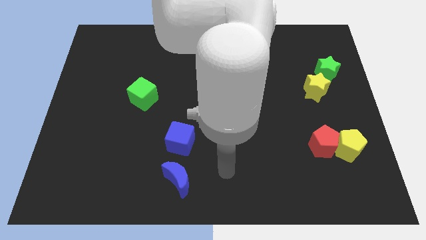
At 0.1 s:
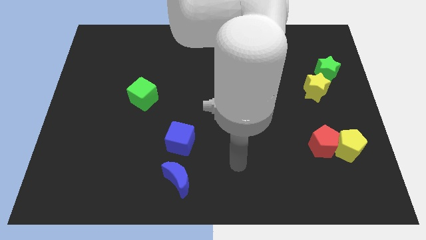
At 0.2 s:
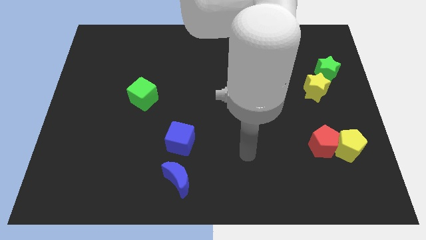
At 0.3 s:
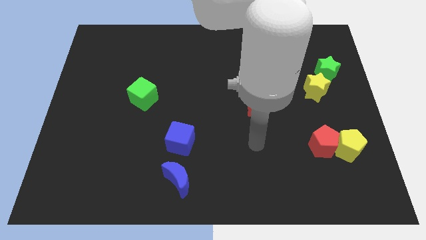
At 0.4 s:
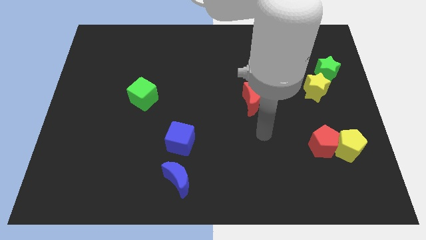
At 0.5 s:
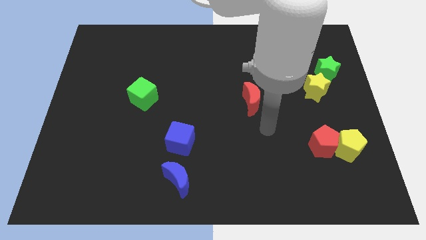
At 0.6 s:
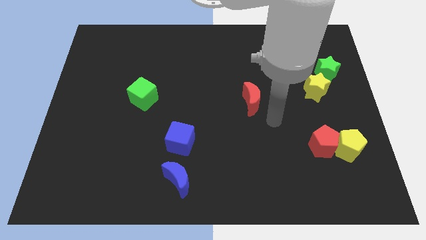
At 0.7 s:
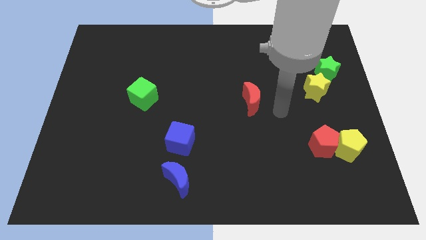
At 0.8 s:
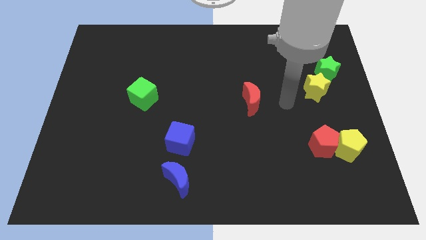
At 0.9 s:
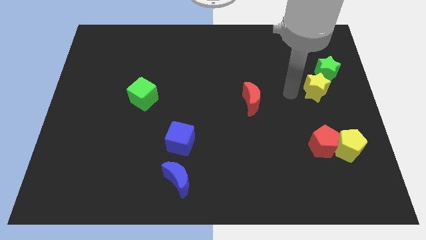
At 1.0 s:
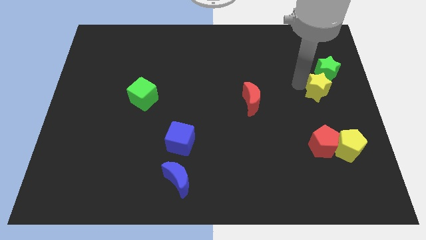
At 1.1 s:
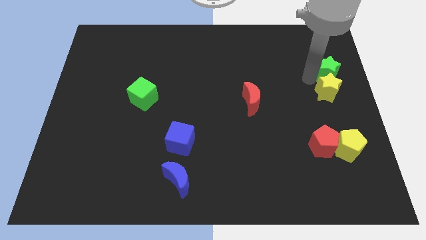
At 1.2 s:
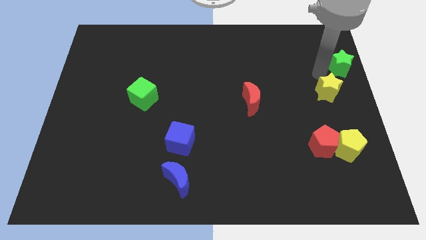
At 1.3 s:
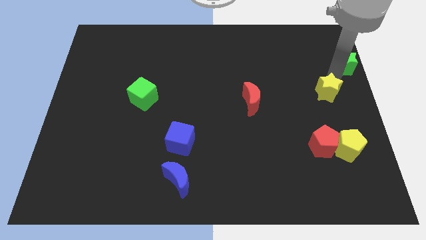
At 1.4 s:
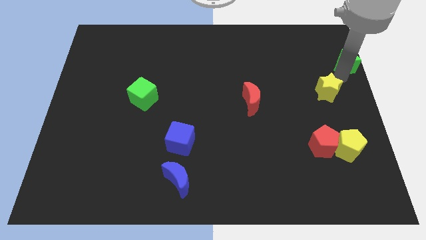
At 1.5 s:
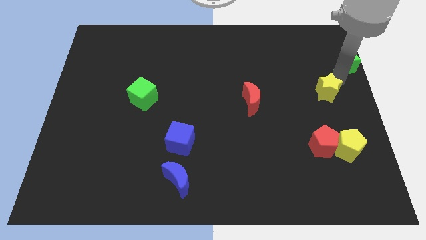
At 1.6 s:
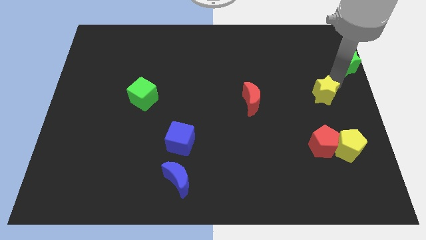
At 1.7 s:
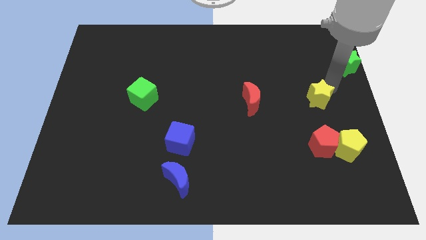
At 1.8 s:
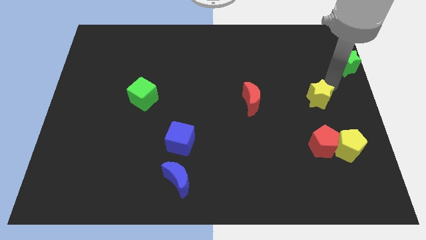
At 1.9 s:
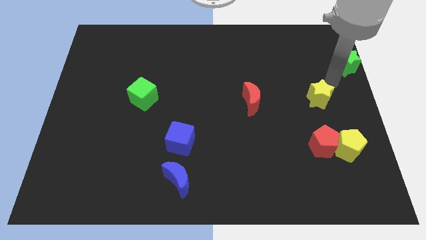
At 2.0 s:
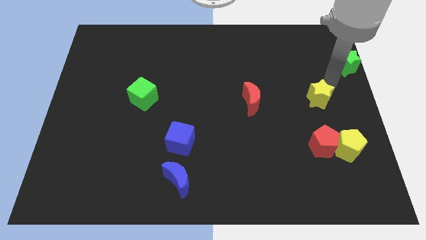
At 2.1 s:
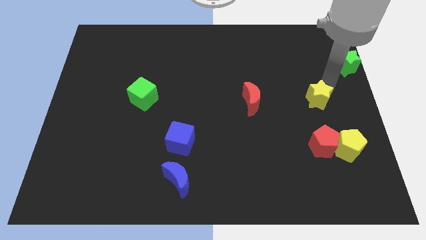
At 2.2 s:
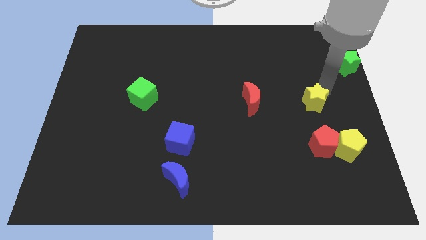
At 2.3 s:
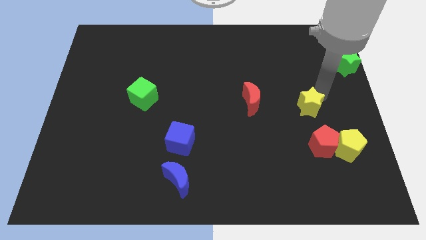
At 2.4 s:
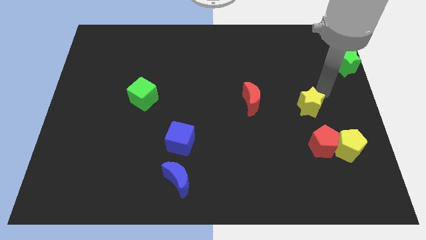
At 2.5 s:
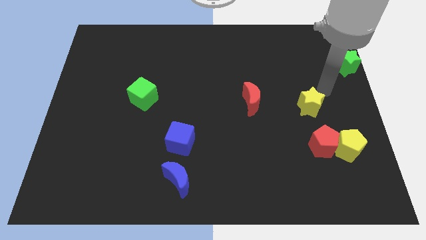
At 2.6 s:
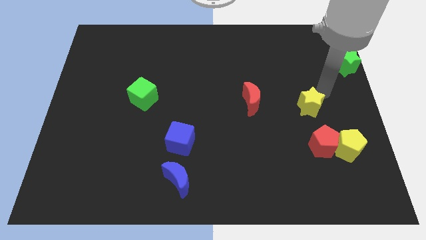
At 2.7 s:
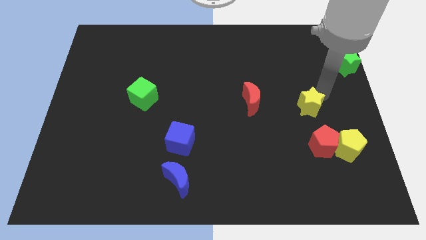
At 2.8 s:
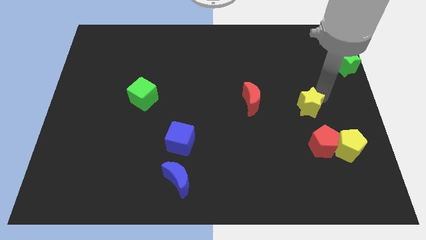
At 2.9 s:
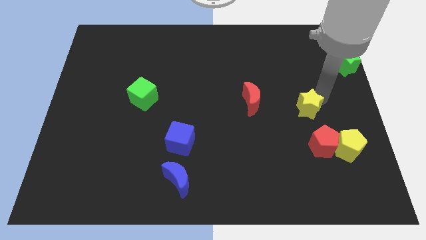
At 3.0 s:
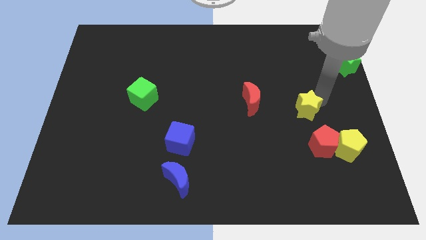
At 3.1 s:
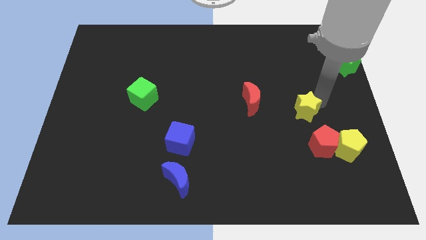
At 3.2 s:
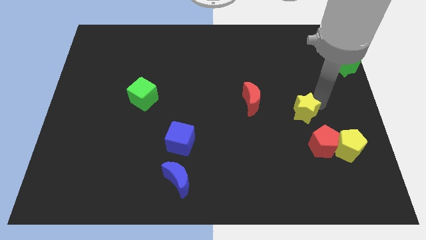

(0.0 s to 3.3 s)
slightly slide the yellow star down and then to the left

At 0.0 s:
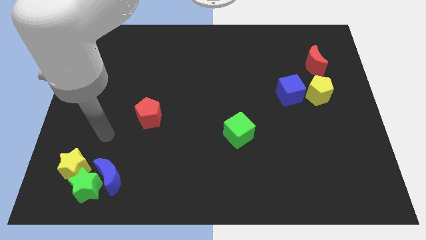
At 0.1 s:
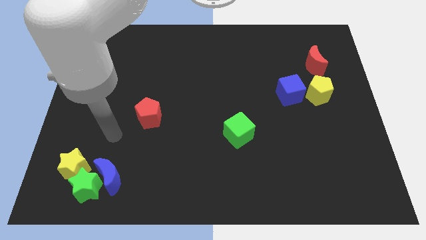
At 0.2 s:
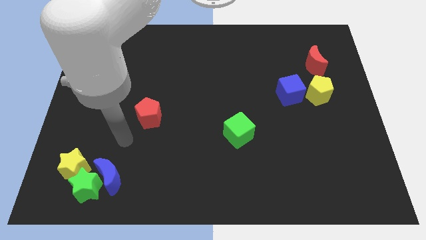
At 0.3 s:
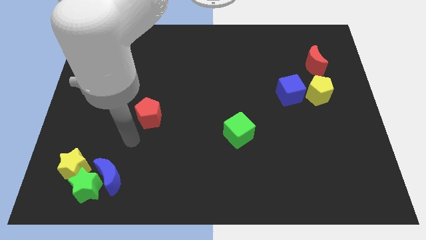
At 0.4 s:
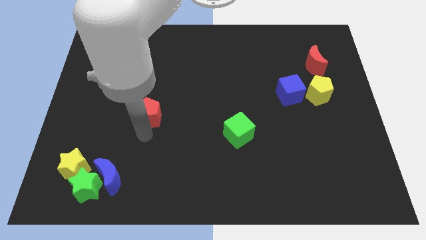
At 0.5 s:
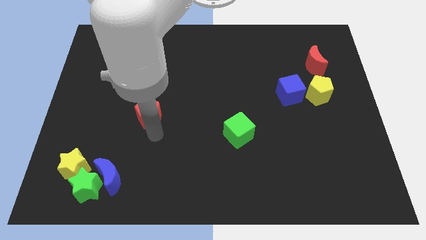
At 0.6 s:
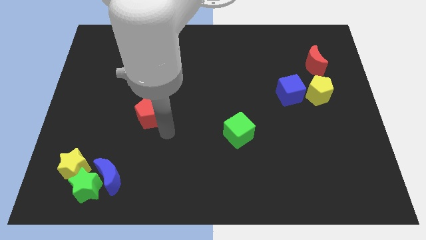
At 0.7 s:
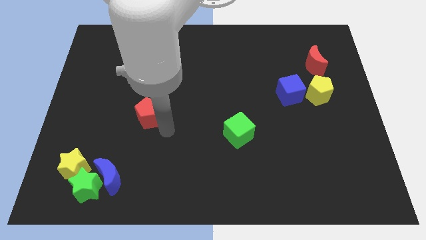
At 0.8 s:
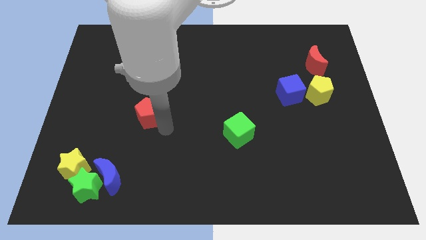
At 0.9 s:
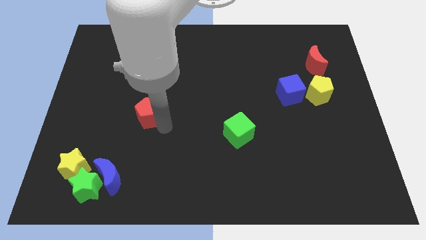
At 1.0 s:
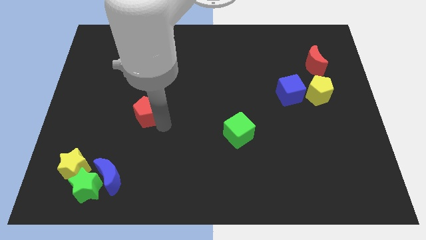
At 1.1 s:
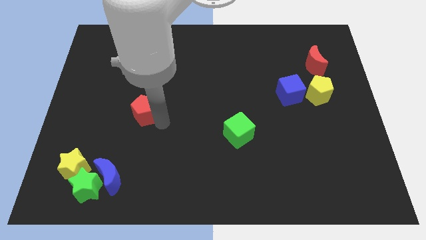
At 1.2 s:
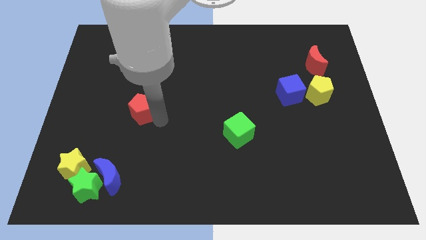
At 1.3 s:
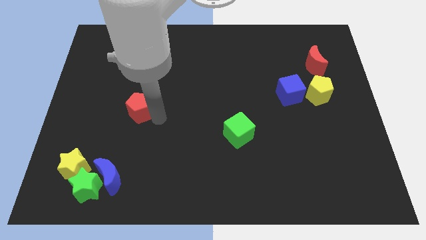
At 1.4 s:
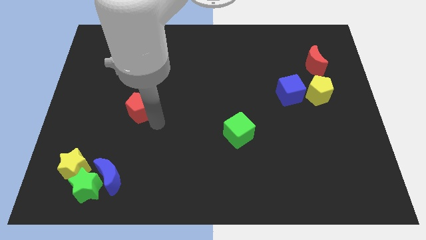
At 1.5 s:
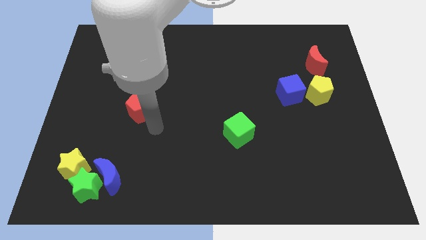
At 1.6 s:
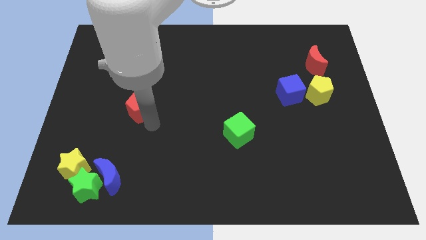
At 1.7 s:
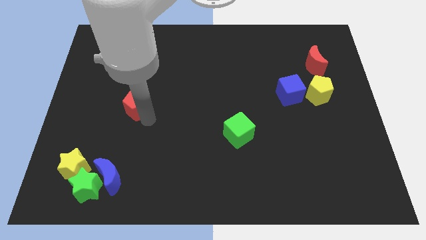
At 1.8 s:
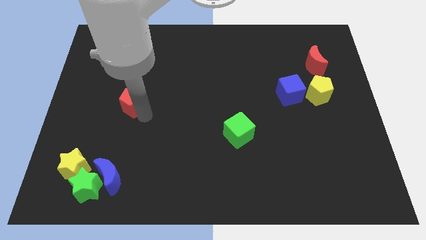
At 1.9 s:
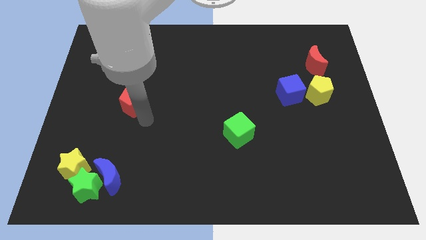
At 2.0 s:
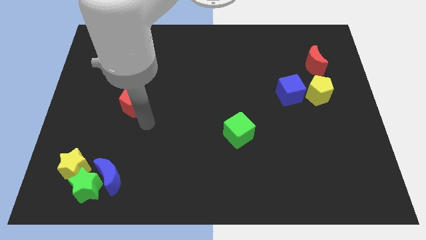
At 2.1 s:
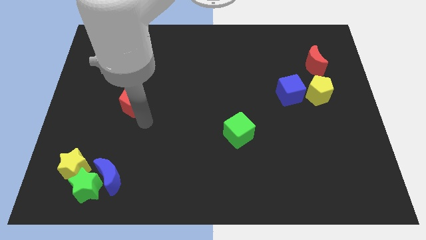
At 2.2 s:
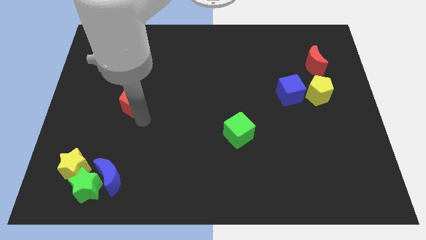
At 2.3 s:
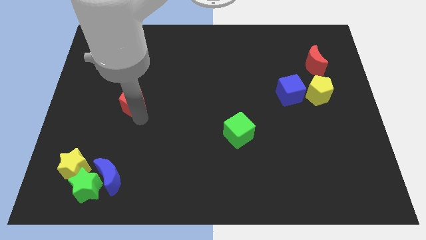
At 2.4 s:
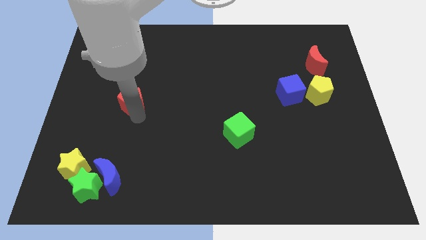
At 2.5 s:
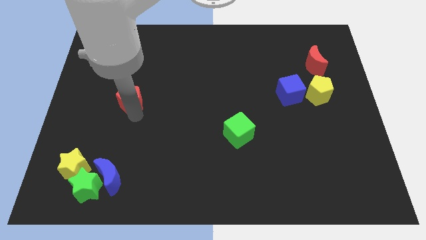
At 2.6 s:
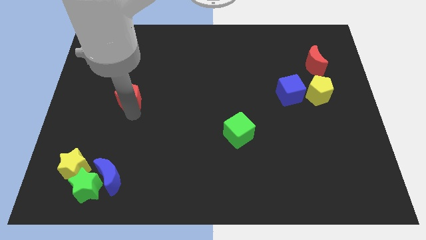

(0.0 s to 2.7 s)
slightly move the red pentagon up and to the left

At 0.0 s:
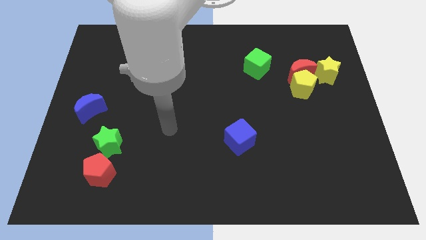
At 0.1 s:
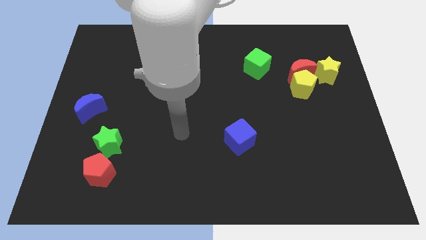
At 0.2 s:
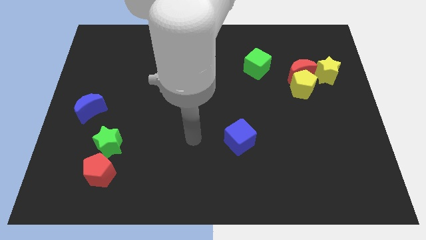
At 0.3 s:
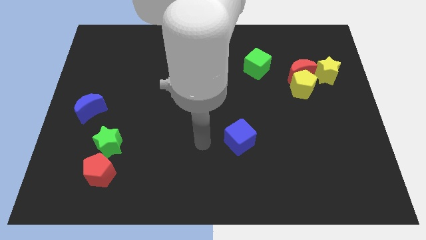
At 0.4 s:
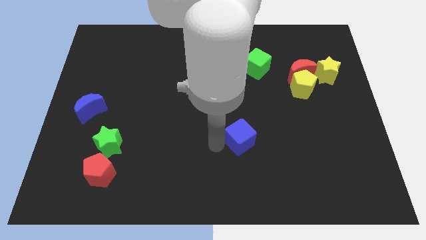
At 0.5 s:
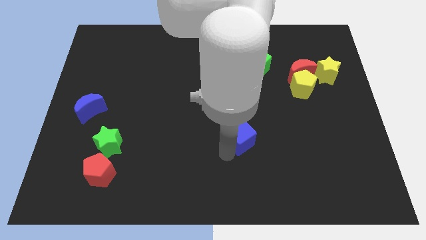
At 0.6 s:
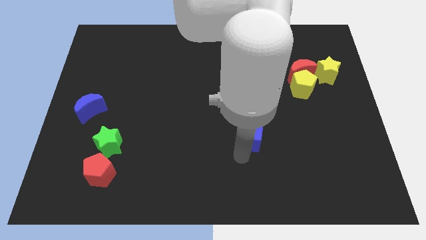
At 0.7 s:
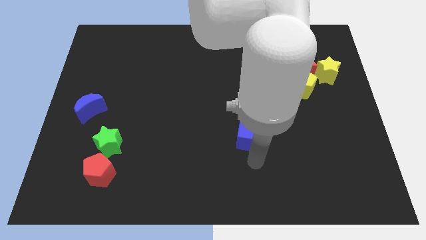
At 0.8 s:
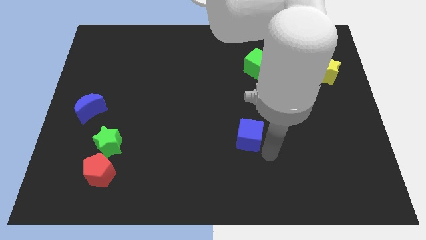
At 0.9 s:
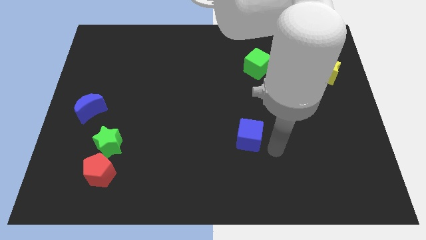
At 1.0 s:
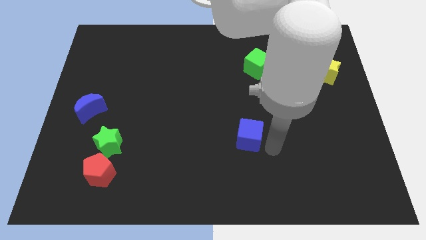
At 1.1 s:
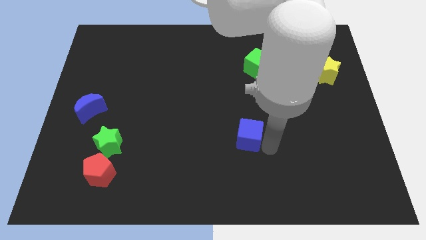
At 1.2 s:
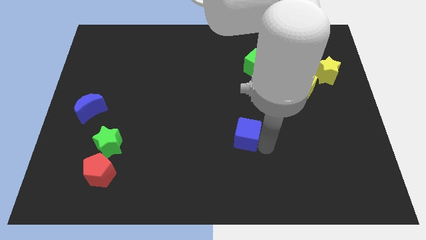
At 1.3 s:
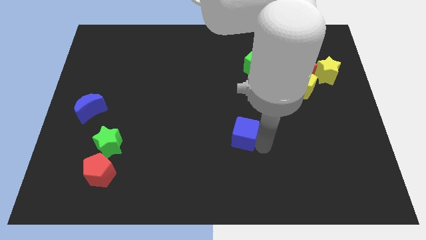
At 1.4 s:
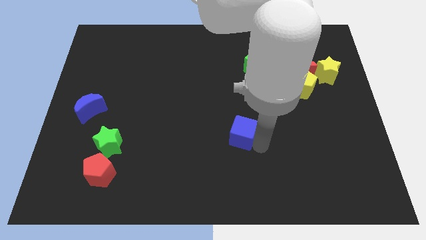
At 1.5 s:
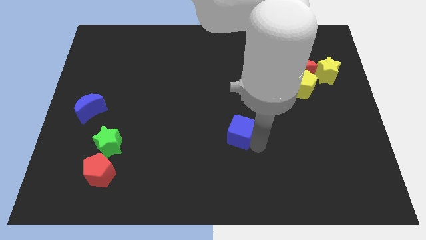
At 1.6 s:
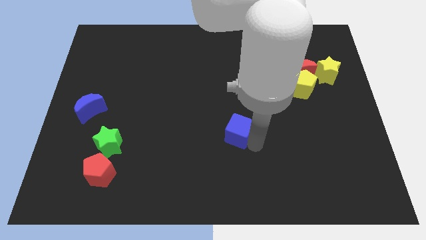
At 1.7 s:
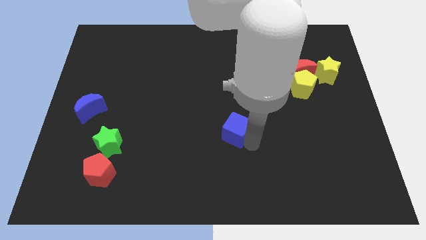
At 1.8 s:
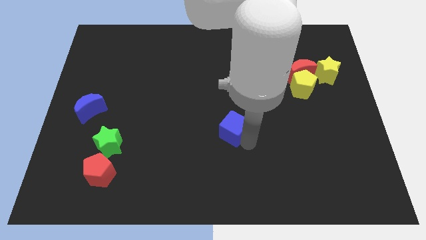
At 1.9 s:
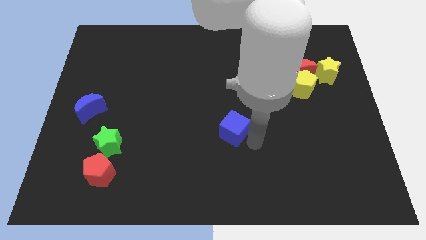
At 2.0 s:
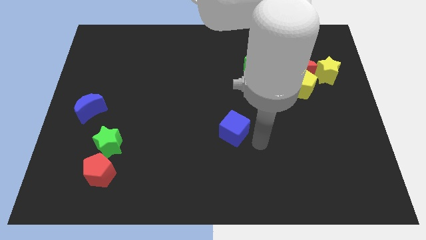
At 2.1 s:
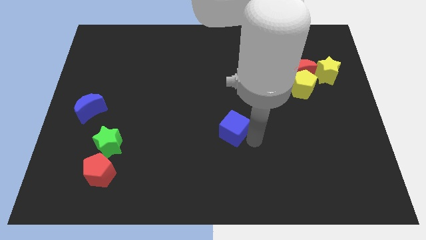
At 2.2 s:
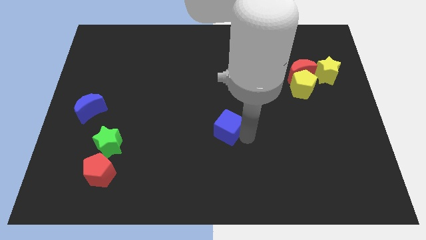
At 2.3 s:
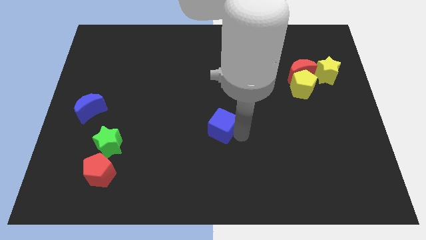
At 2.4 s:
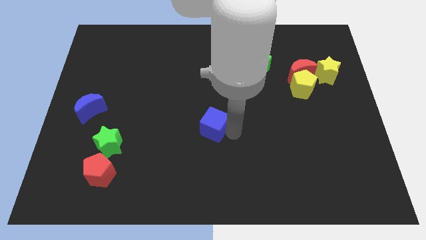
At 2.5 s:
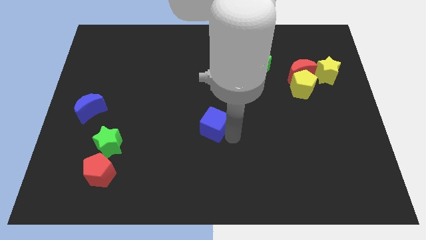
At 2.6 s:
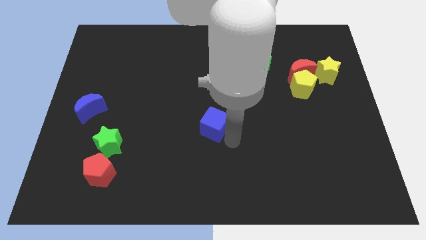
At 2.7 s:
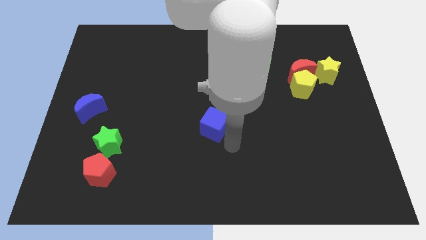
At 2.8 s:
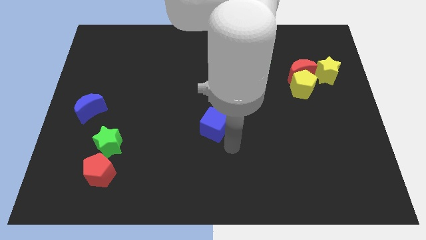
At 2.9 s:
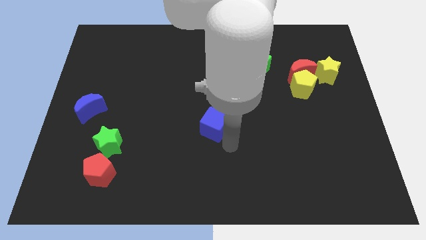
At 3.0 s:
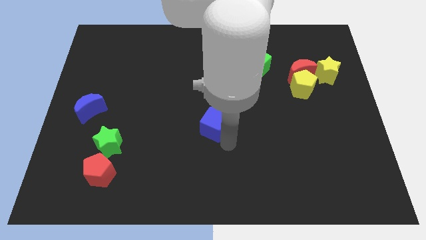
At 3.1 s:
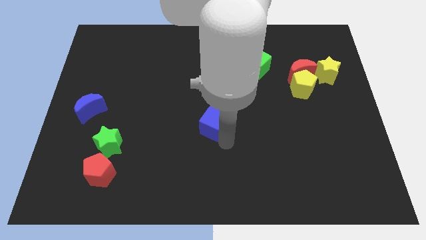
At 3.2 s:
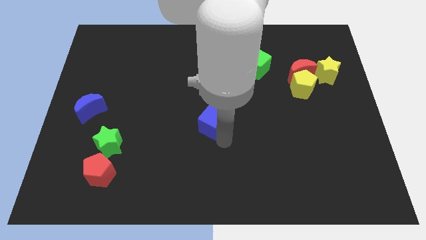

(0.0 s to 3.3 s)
slide the blue cube upwards and then to the left a little bit
